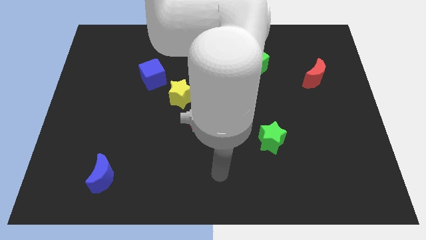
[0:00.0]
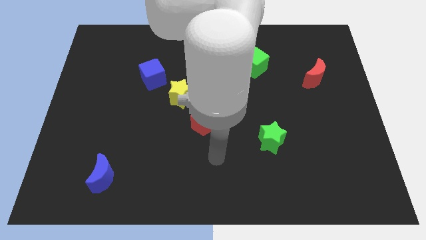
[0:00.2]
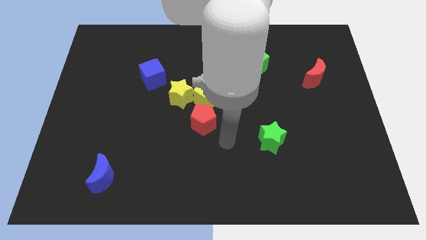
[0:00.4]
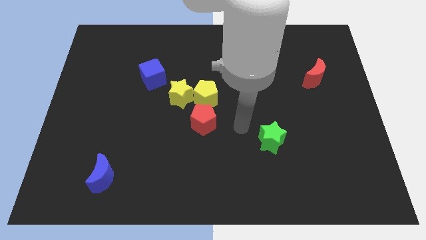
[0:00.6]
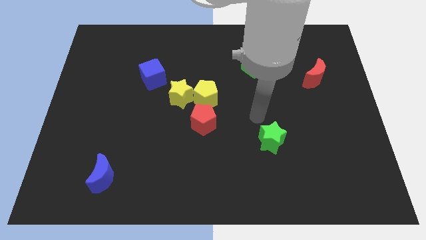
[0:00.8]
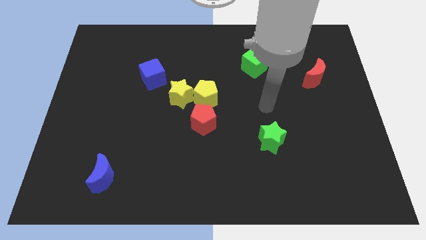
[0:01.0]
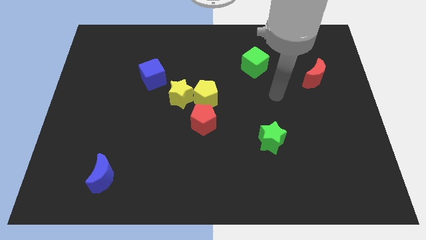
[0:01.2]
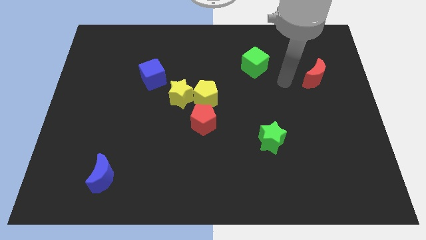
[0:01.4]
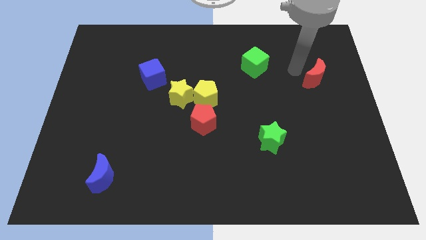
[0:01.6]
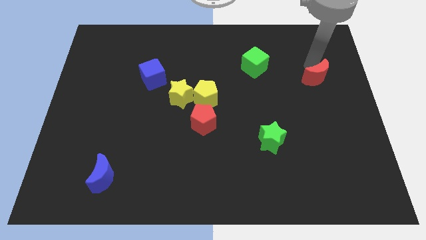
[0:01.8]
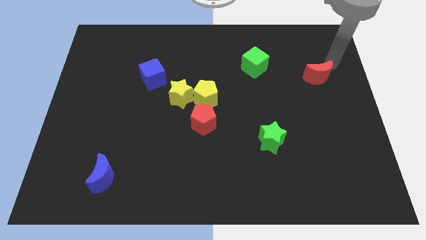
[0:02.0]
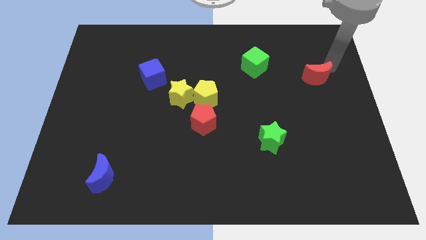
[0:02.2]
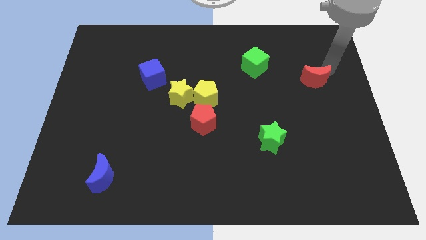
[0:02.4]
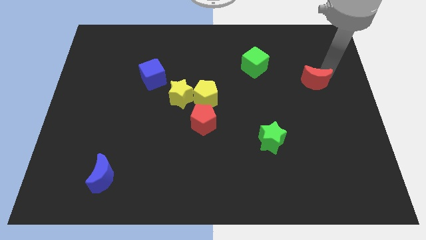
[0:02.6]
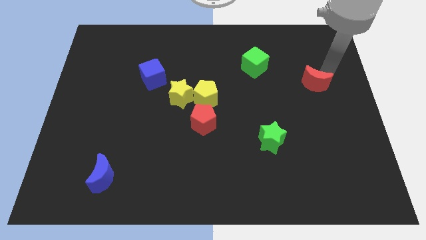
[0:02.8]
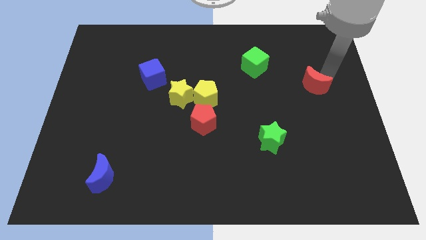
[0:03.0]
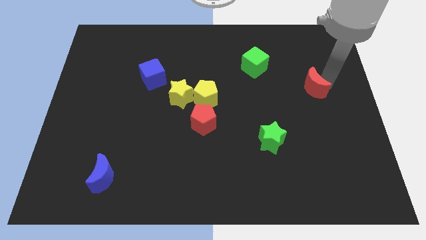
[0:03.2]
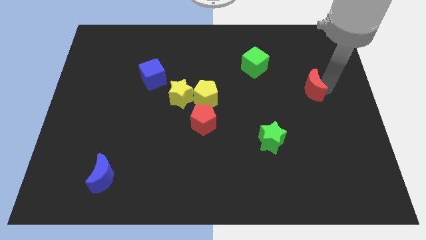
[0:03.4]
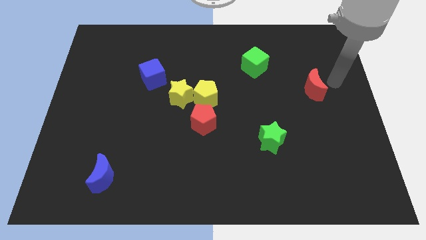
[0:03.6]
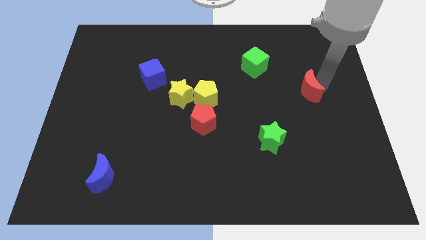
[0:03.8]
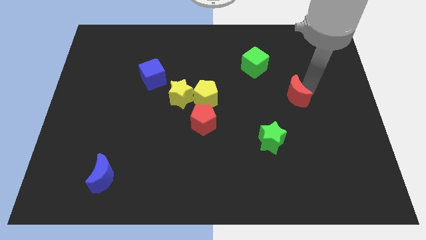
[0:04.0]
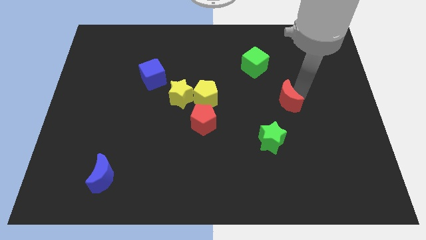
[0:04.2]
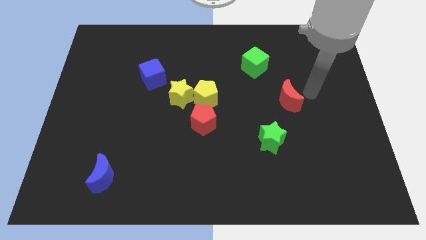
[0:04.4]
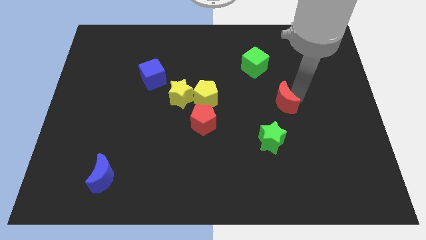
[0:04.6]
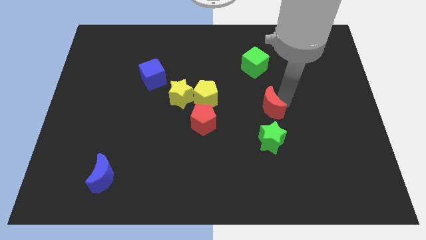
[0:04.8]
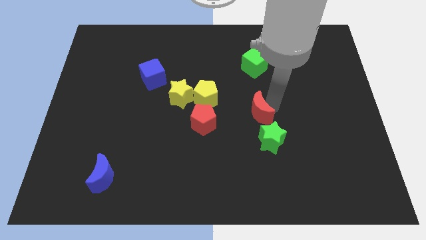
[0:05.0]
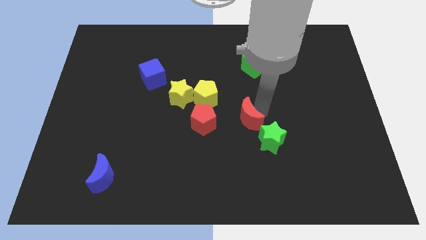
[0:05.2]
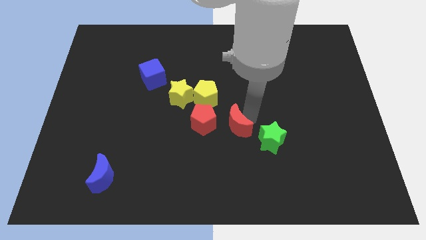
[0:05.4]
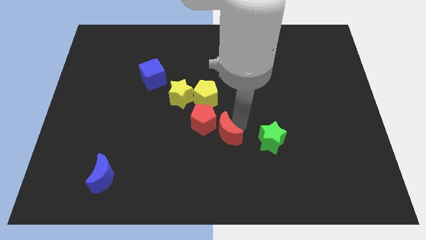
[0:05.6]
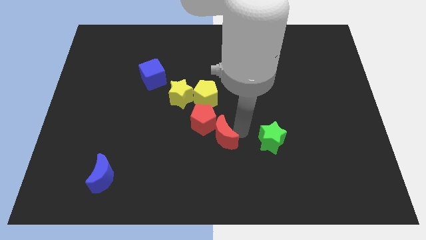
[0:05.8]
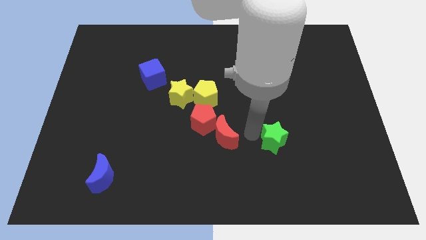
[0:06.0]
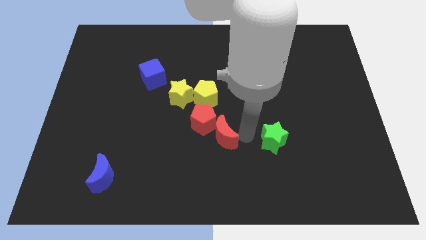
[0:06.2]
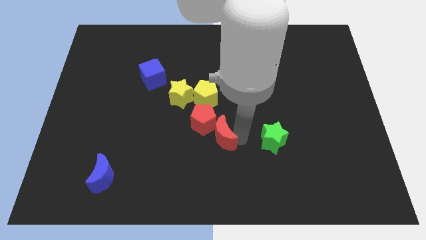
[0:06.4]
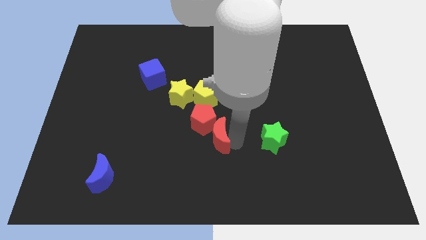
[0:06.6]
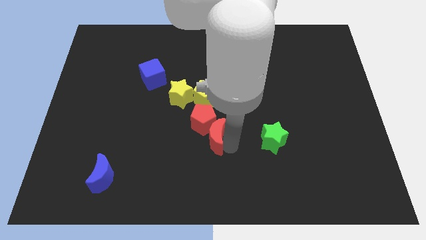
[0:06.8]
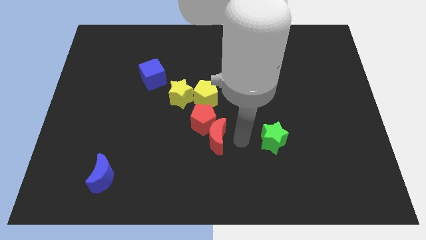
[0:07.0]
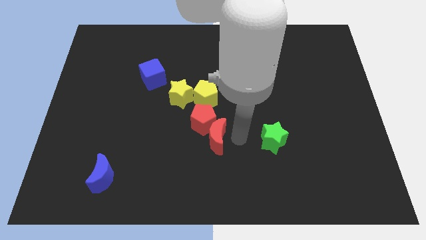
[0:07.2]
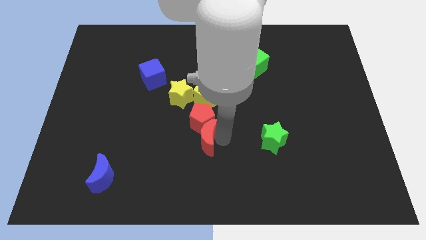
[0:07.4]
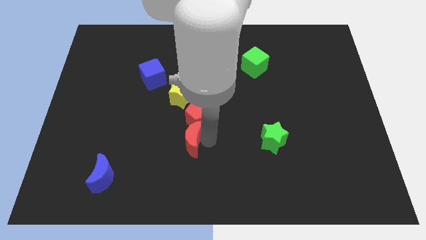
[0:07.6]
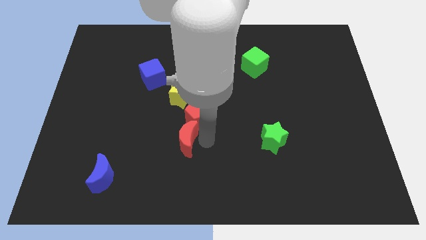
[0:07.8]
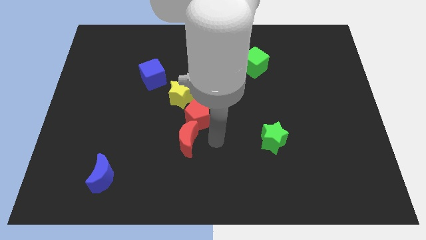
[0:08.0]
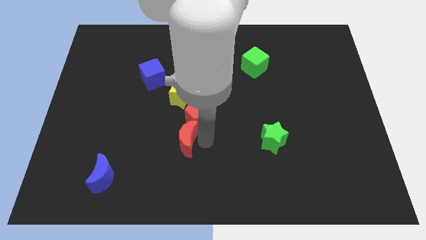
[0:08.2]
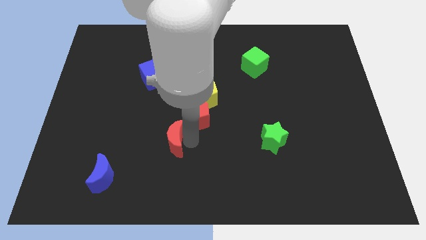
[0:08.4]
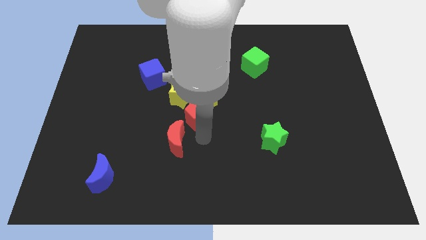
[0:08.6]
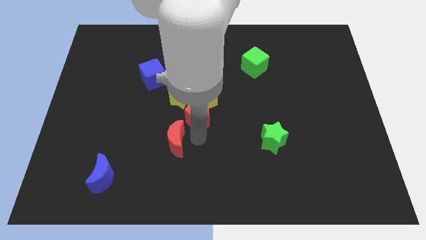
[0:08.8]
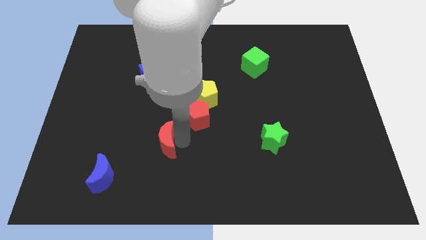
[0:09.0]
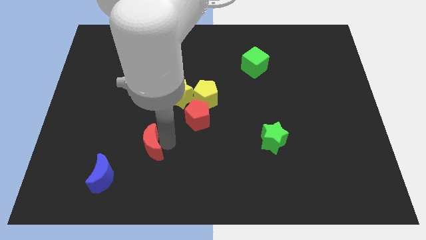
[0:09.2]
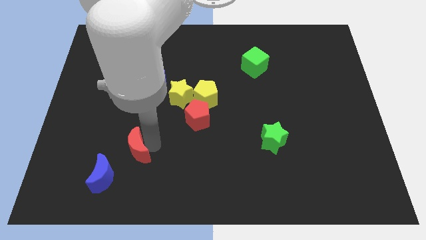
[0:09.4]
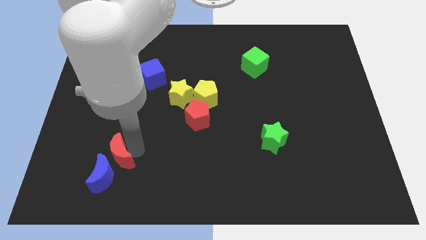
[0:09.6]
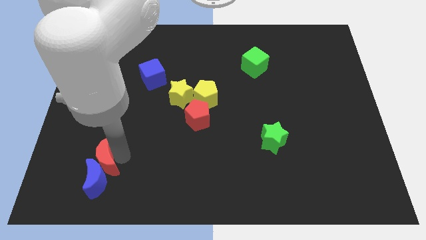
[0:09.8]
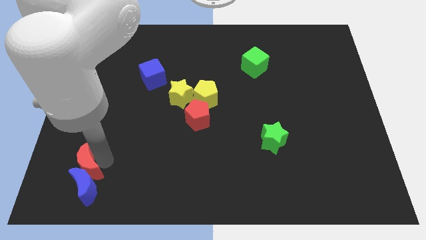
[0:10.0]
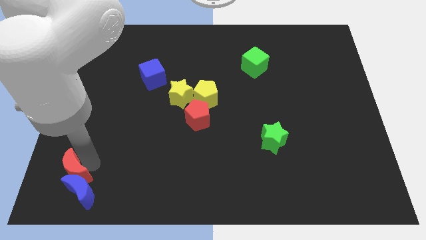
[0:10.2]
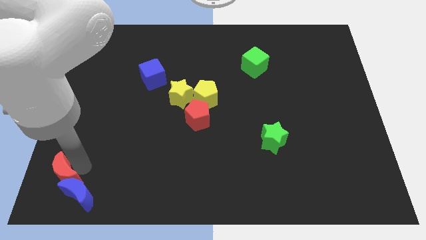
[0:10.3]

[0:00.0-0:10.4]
push the red moon to the lower left corner

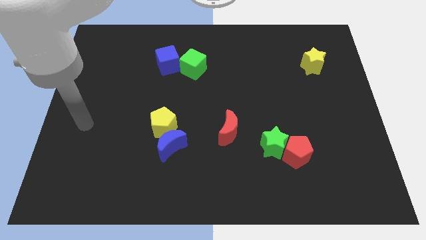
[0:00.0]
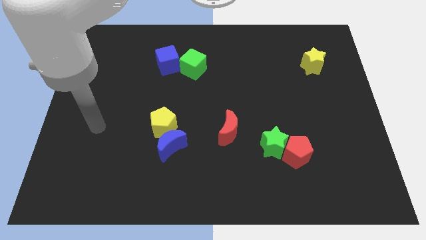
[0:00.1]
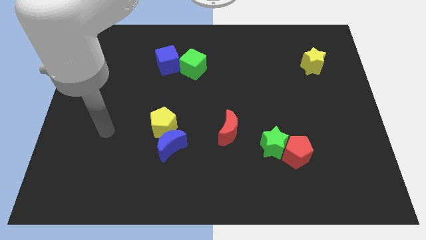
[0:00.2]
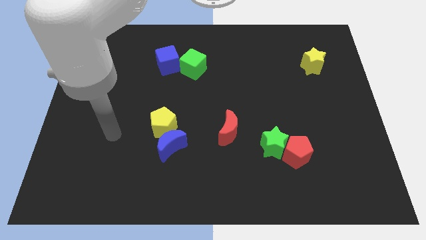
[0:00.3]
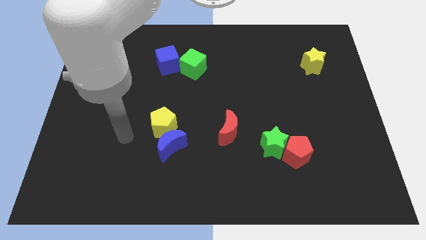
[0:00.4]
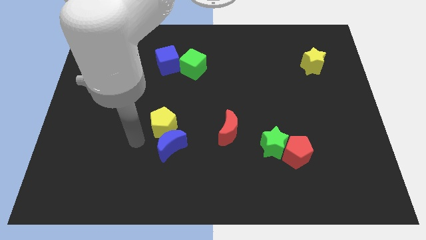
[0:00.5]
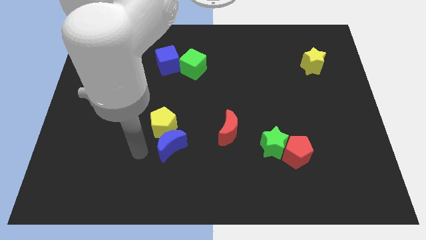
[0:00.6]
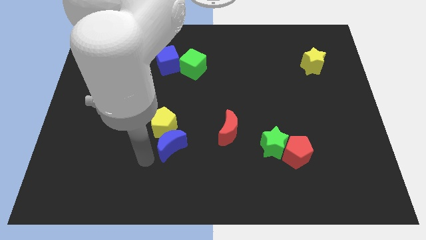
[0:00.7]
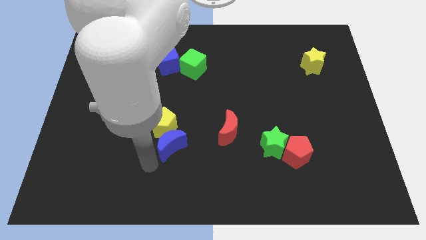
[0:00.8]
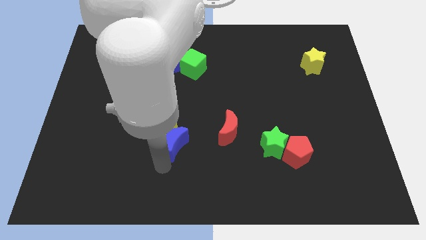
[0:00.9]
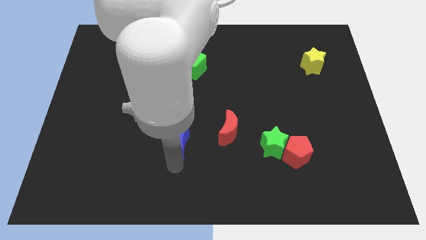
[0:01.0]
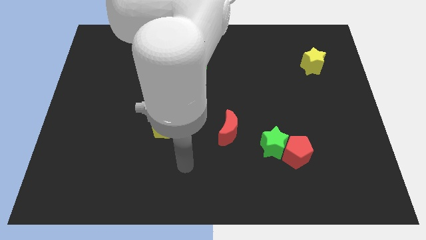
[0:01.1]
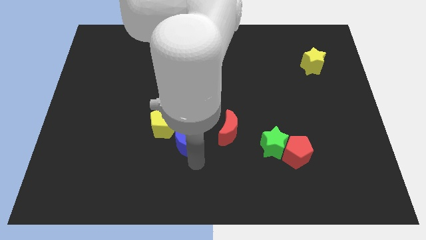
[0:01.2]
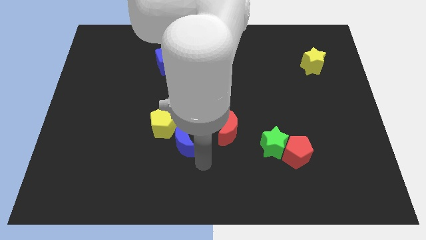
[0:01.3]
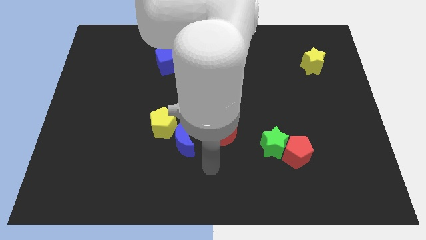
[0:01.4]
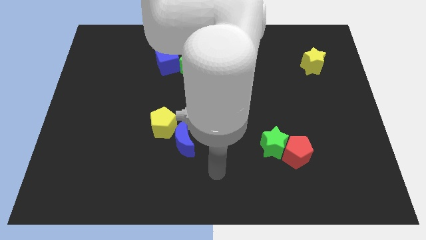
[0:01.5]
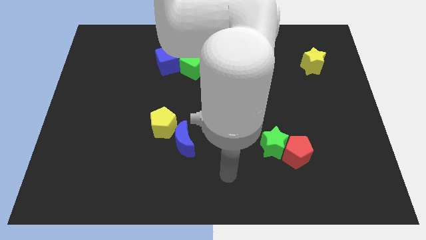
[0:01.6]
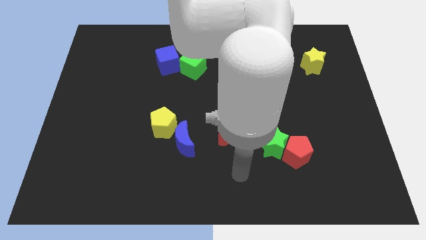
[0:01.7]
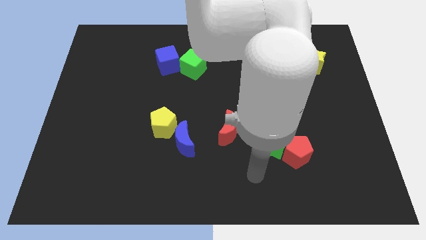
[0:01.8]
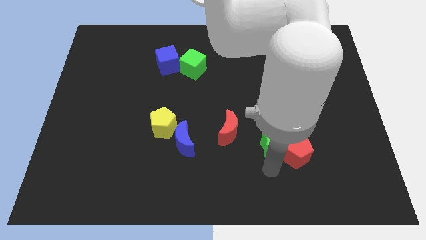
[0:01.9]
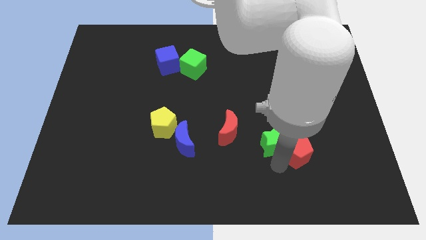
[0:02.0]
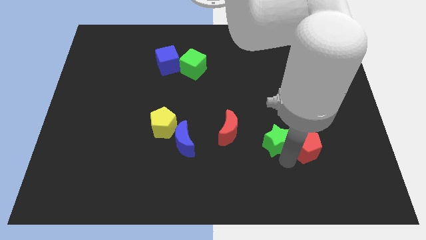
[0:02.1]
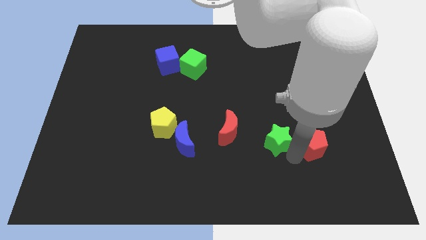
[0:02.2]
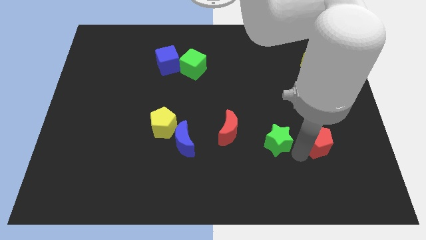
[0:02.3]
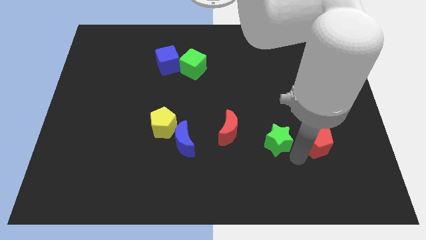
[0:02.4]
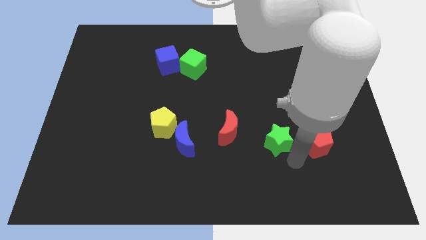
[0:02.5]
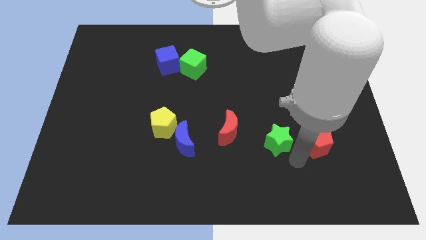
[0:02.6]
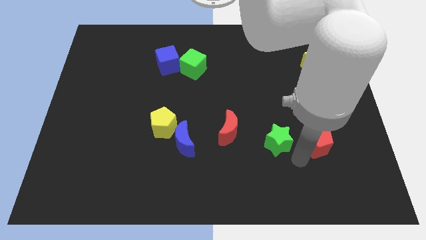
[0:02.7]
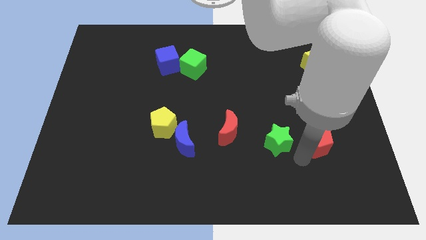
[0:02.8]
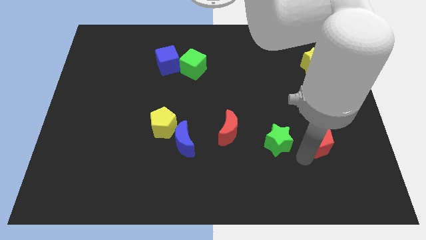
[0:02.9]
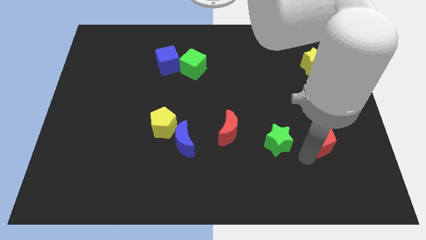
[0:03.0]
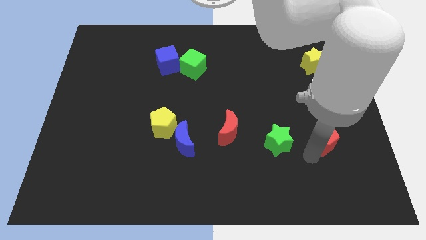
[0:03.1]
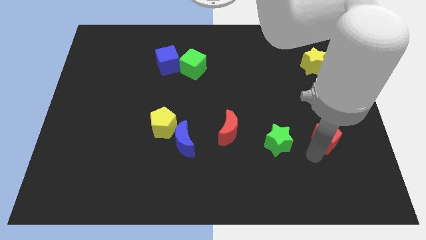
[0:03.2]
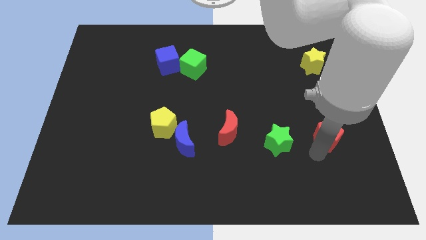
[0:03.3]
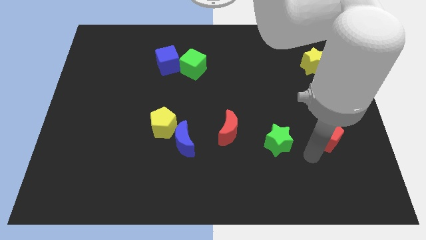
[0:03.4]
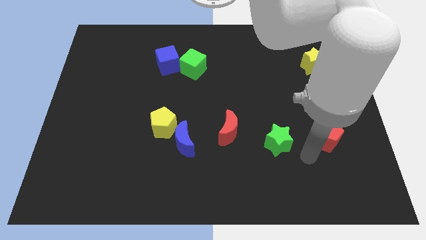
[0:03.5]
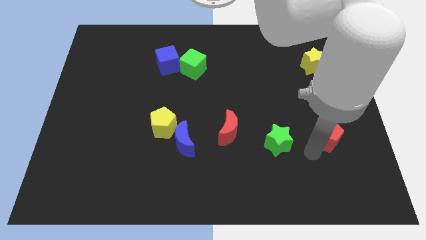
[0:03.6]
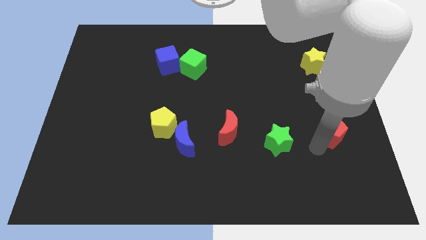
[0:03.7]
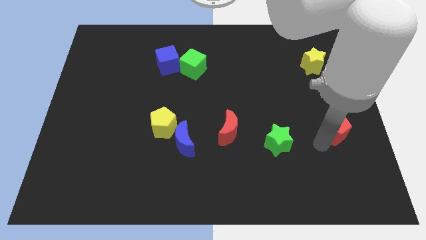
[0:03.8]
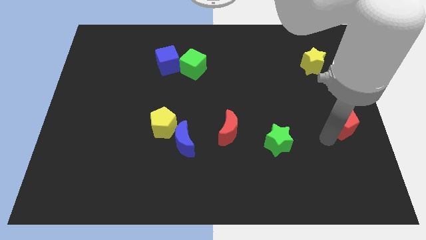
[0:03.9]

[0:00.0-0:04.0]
push the red pentagon to the center right
